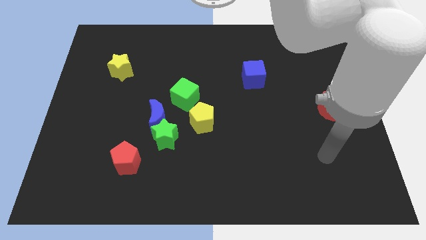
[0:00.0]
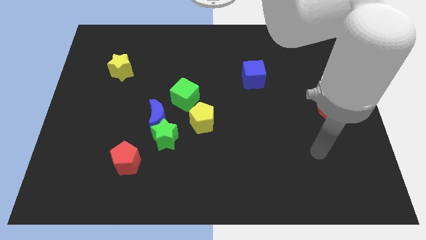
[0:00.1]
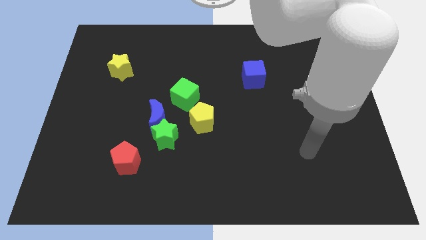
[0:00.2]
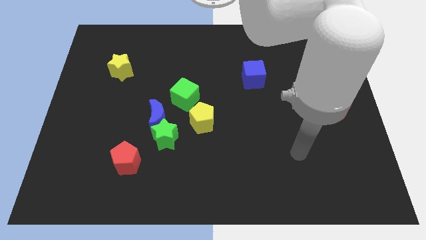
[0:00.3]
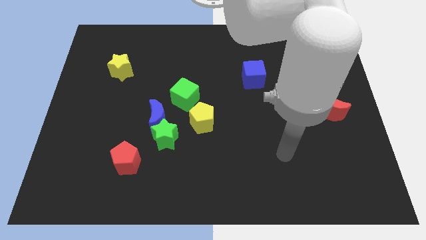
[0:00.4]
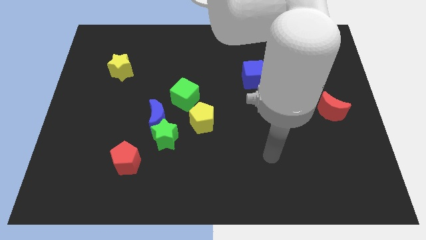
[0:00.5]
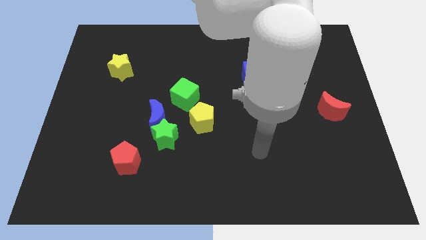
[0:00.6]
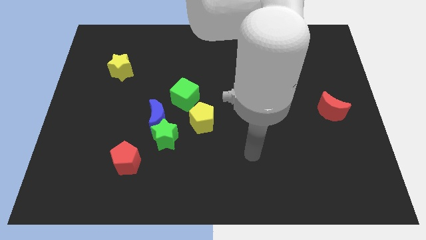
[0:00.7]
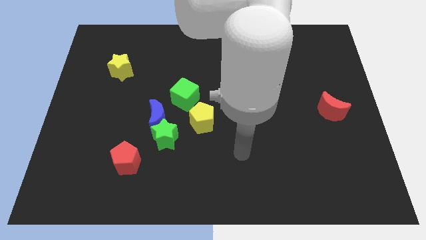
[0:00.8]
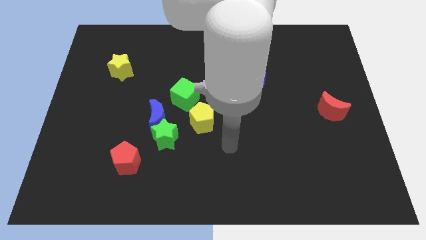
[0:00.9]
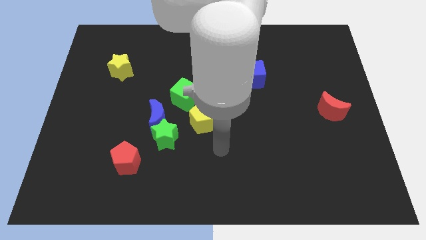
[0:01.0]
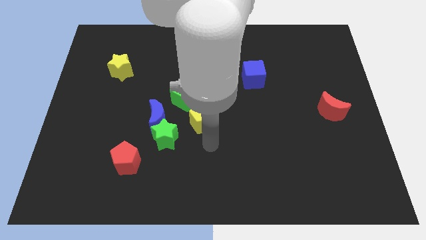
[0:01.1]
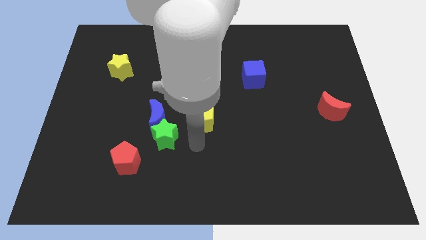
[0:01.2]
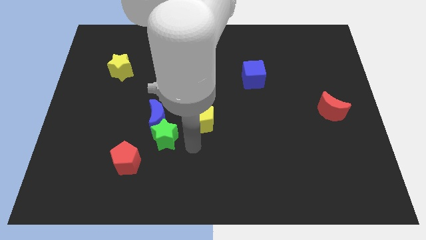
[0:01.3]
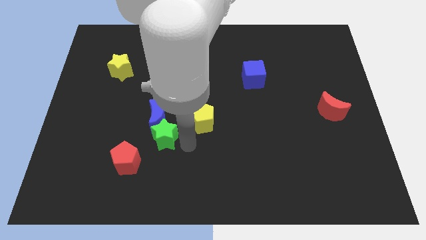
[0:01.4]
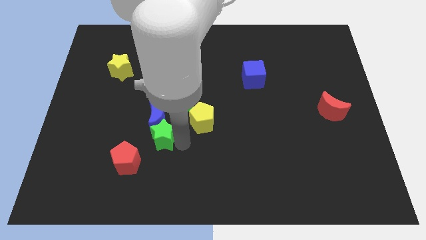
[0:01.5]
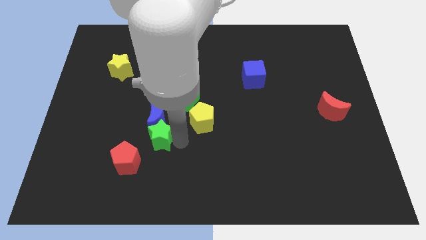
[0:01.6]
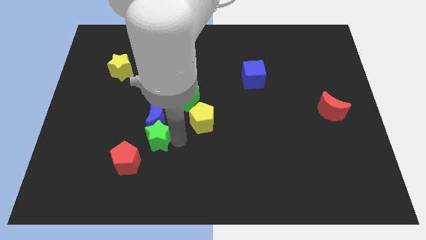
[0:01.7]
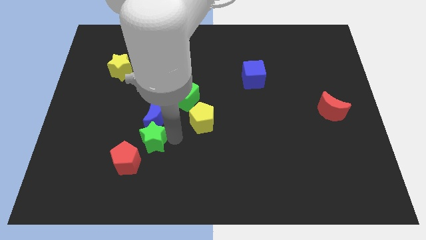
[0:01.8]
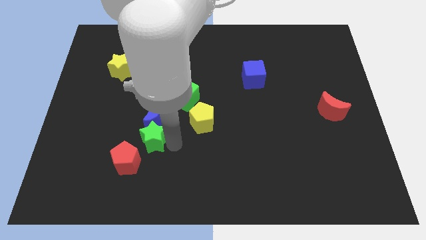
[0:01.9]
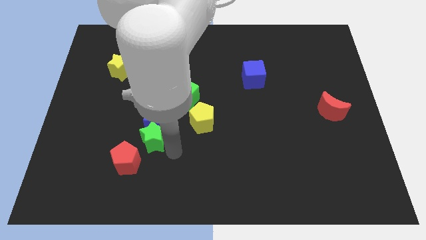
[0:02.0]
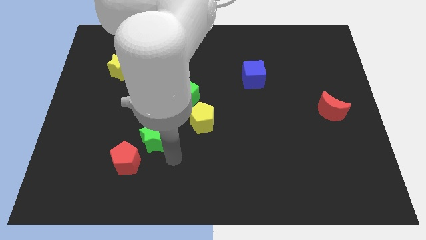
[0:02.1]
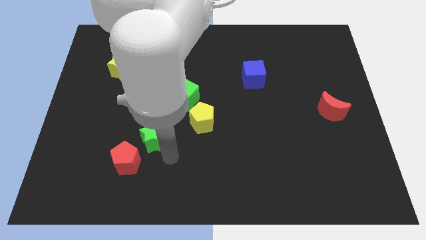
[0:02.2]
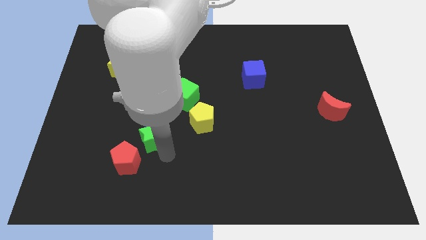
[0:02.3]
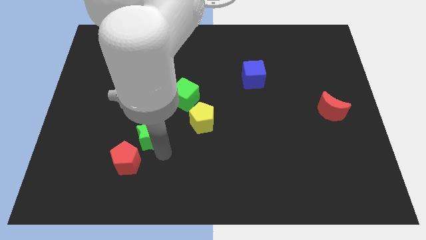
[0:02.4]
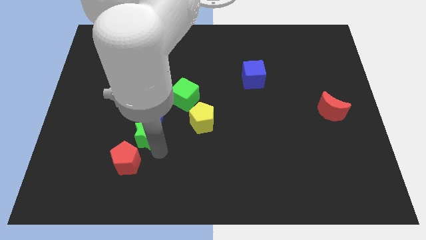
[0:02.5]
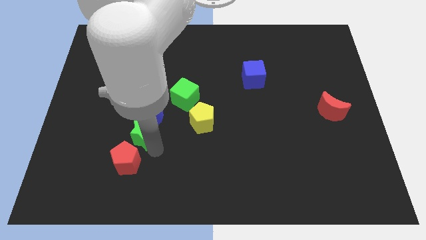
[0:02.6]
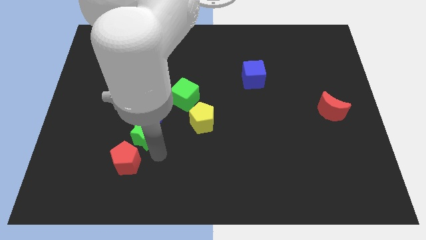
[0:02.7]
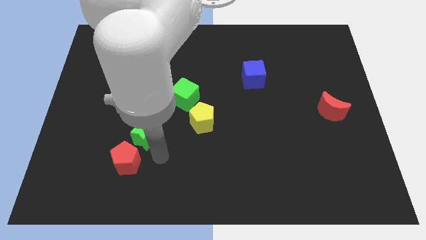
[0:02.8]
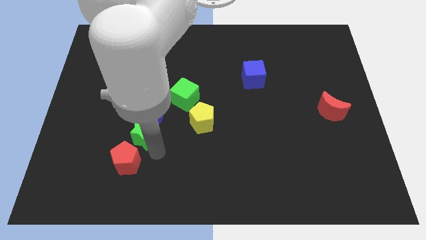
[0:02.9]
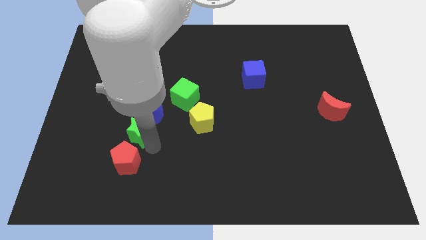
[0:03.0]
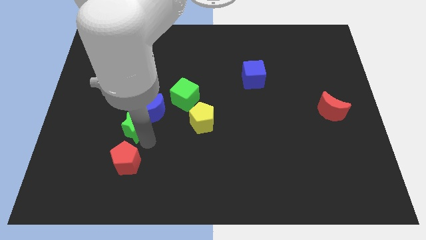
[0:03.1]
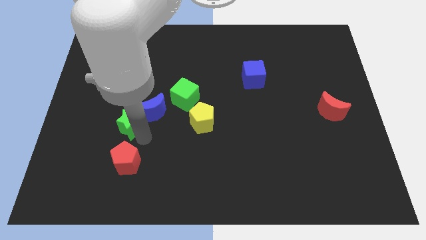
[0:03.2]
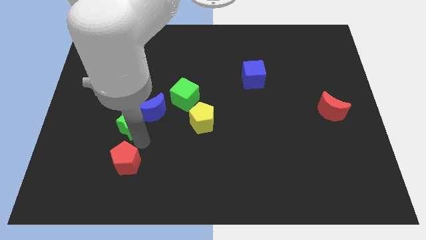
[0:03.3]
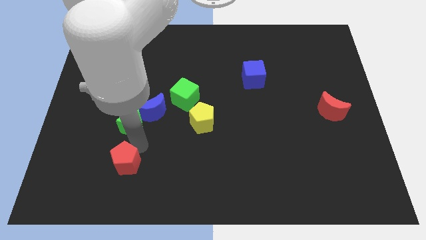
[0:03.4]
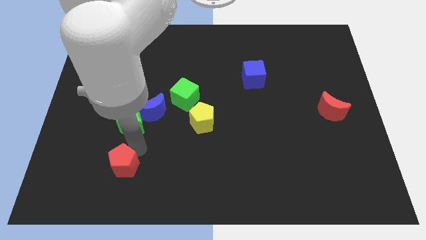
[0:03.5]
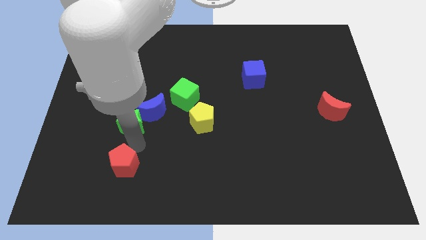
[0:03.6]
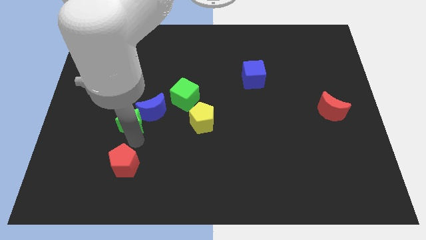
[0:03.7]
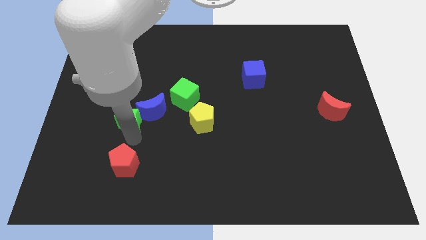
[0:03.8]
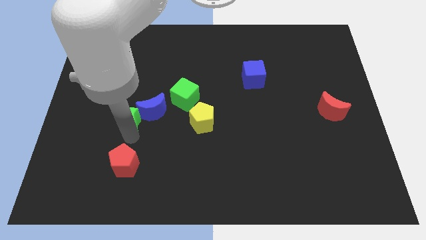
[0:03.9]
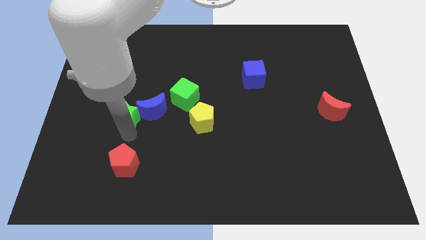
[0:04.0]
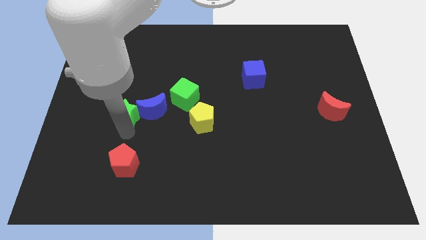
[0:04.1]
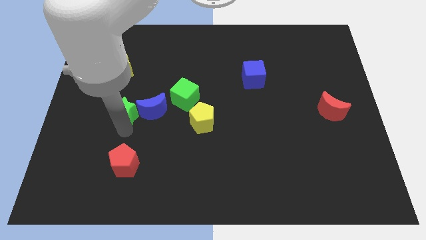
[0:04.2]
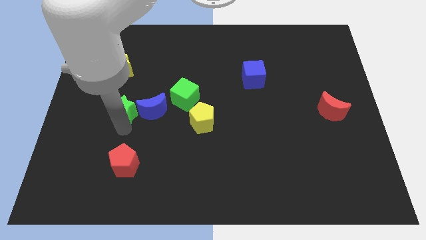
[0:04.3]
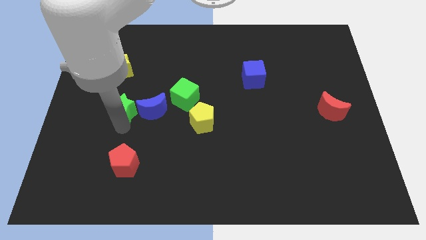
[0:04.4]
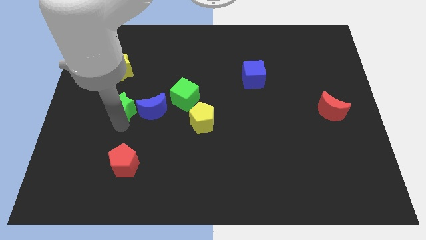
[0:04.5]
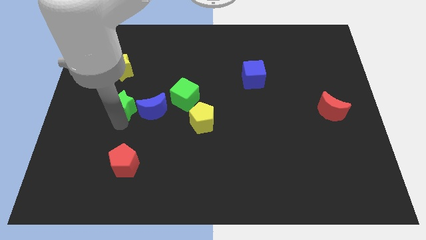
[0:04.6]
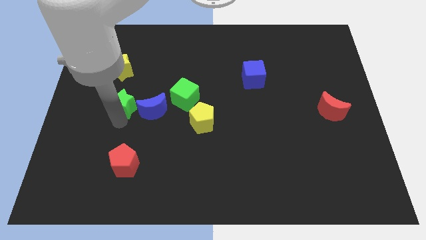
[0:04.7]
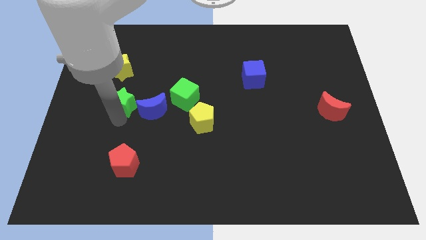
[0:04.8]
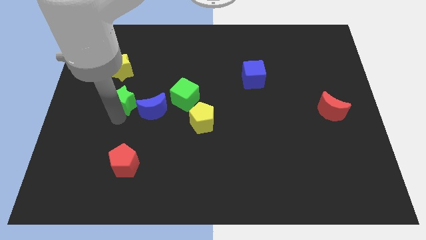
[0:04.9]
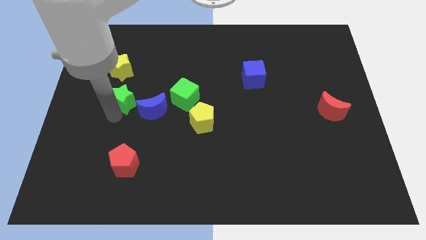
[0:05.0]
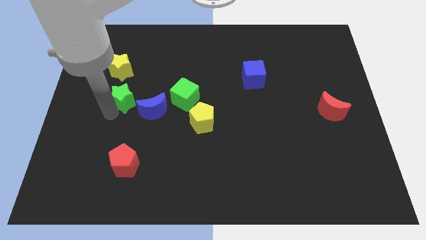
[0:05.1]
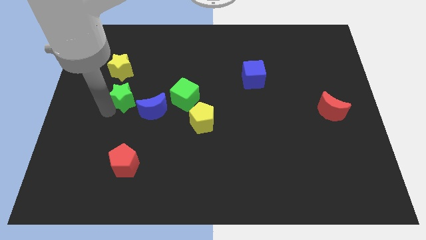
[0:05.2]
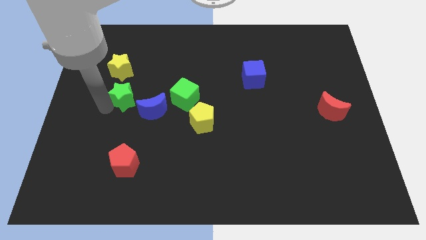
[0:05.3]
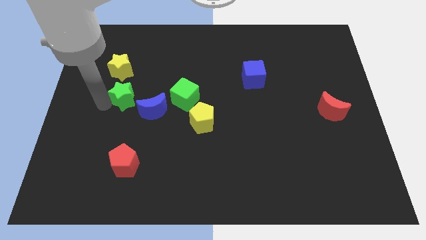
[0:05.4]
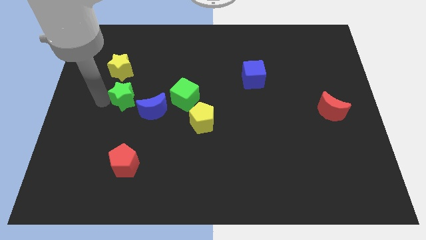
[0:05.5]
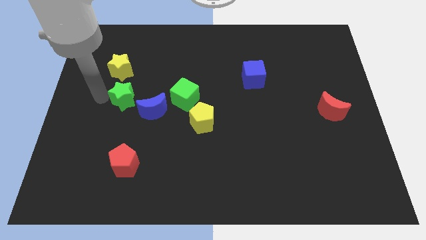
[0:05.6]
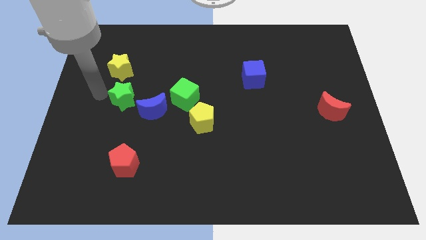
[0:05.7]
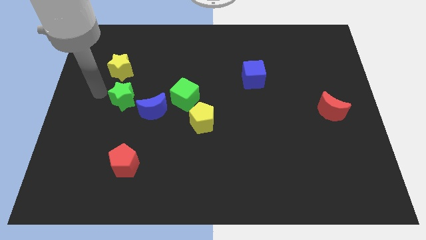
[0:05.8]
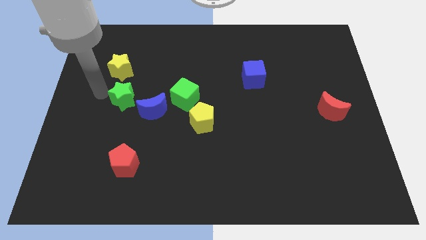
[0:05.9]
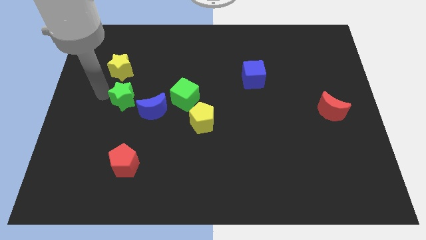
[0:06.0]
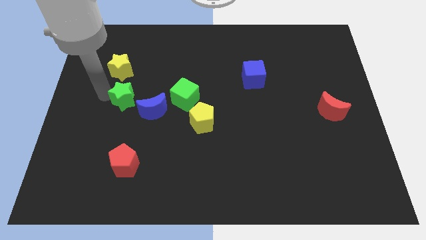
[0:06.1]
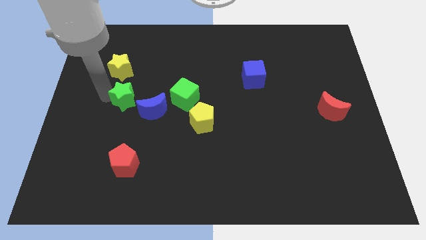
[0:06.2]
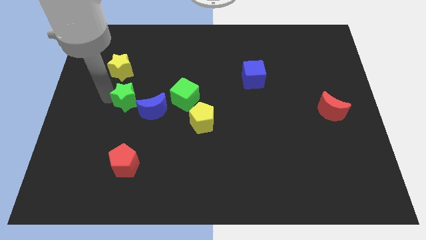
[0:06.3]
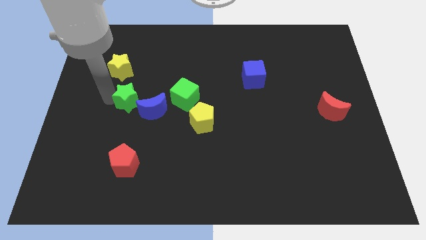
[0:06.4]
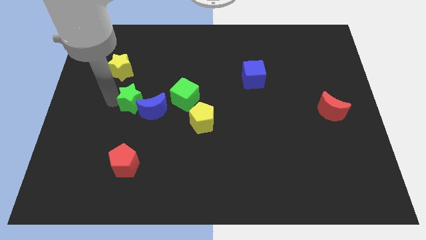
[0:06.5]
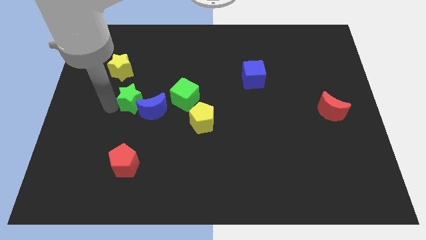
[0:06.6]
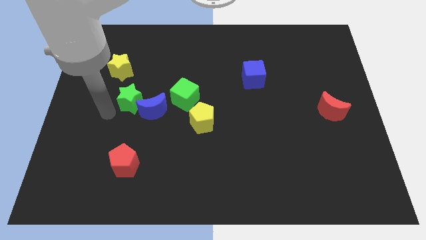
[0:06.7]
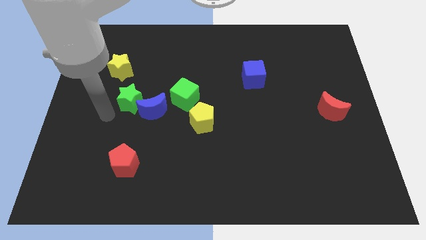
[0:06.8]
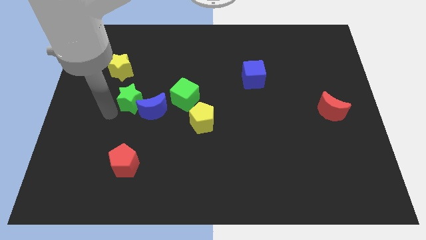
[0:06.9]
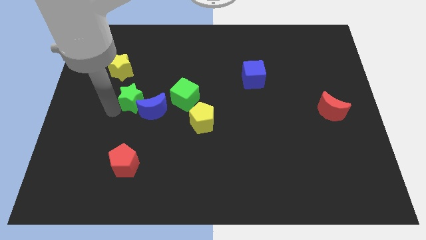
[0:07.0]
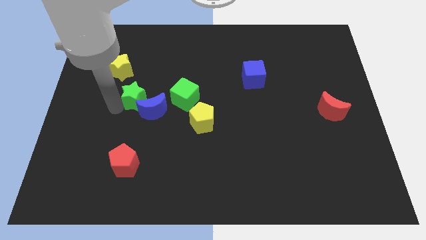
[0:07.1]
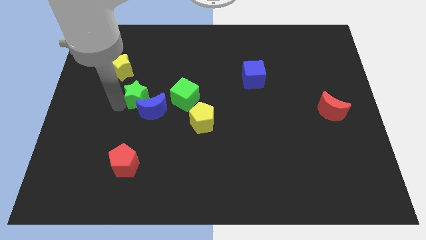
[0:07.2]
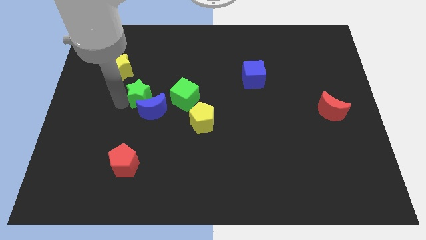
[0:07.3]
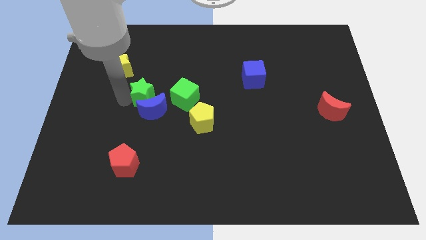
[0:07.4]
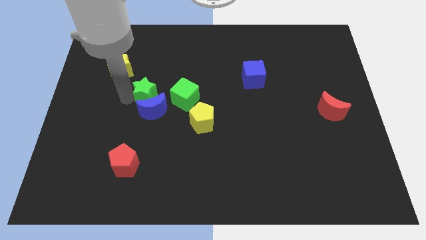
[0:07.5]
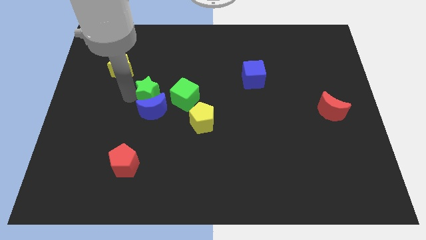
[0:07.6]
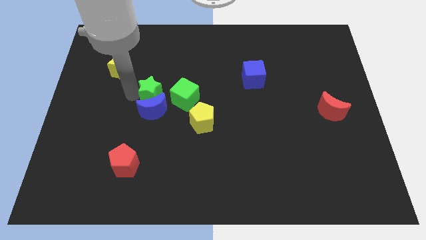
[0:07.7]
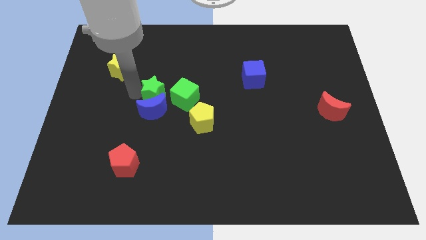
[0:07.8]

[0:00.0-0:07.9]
put the green star to the top left of the green cube
